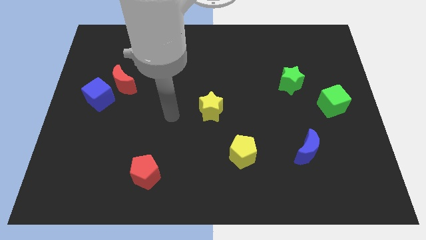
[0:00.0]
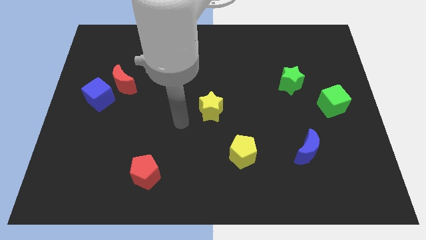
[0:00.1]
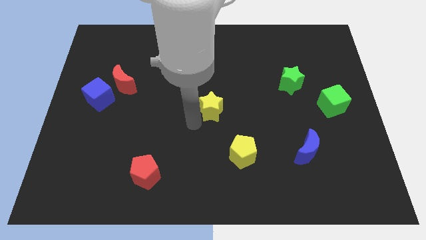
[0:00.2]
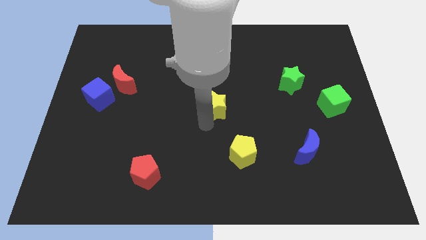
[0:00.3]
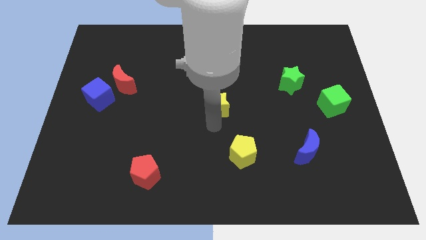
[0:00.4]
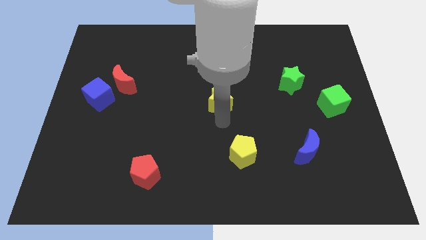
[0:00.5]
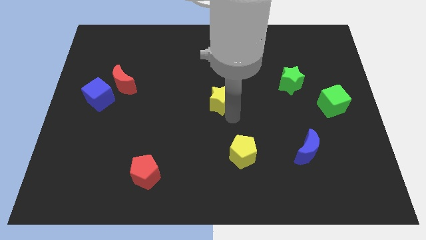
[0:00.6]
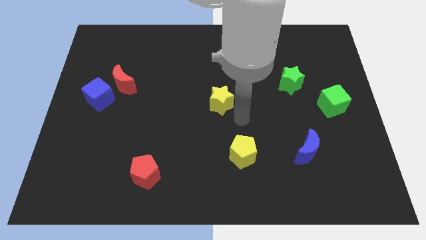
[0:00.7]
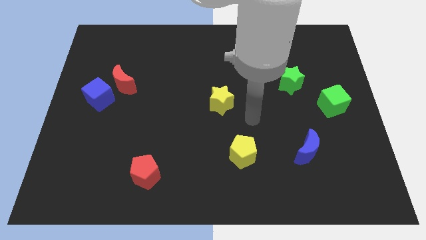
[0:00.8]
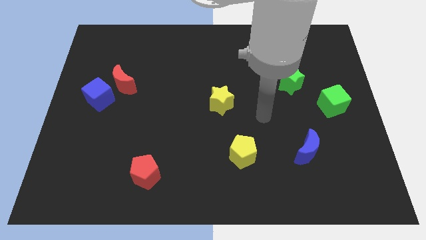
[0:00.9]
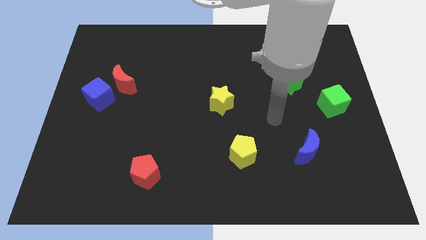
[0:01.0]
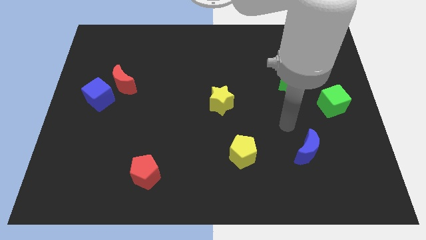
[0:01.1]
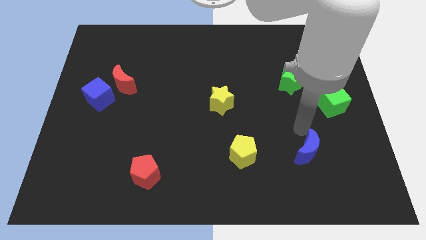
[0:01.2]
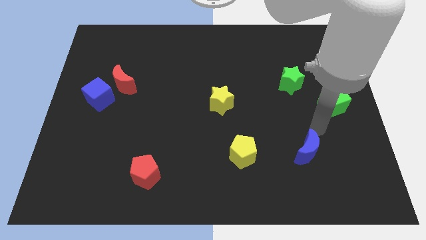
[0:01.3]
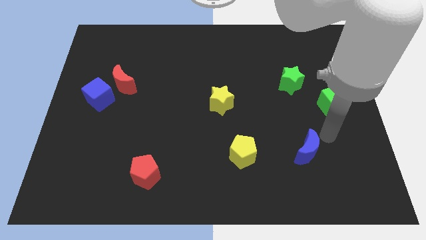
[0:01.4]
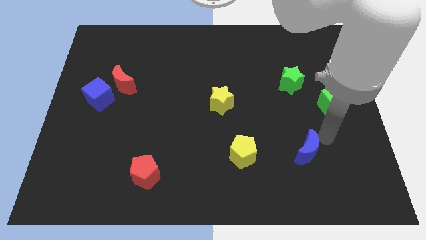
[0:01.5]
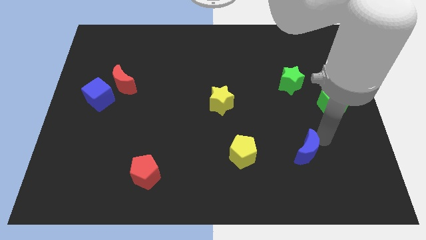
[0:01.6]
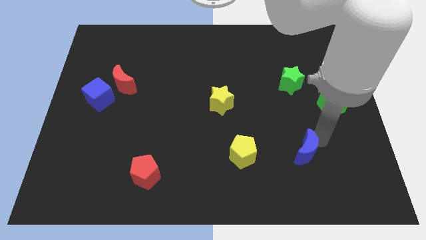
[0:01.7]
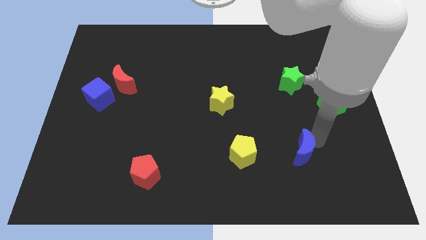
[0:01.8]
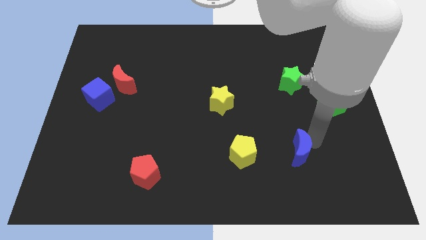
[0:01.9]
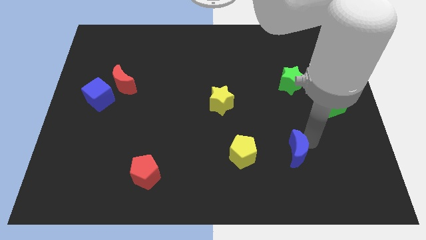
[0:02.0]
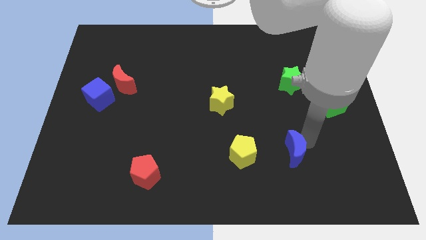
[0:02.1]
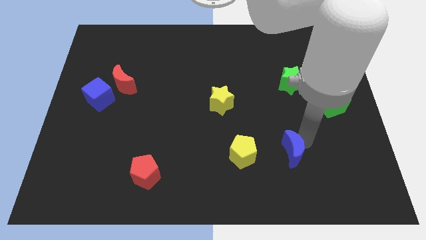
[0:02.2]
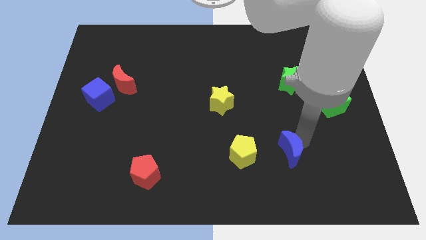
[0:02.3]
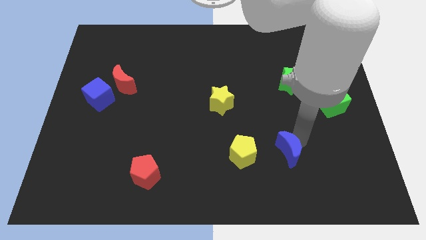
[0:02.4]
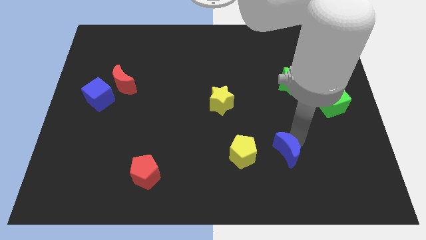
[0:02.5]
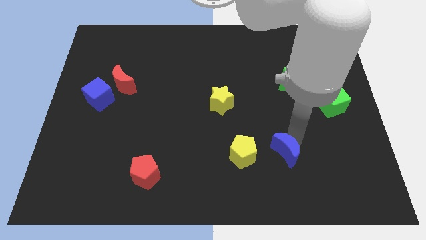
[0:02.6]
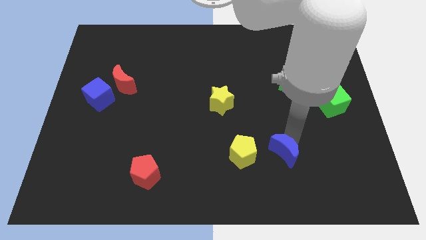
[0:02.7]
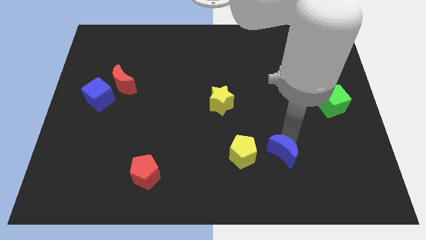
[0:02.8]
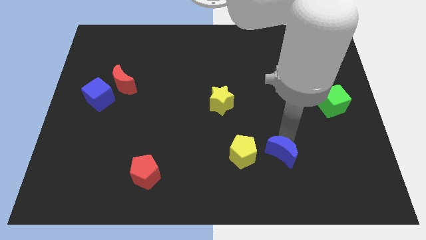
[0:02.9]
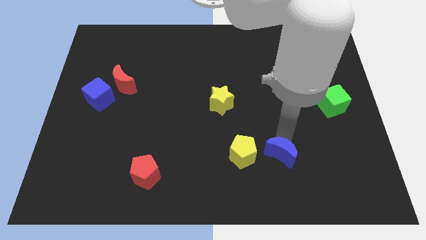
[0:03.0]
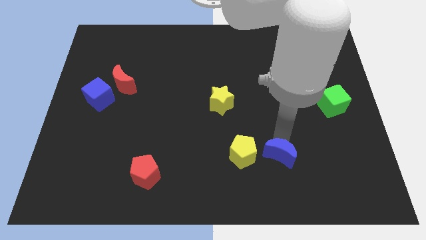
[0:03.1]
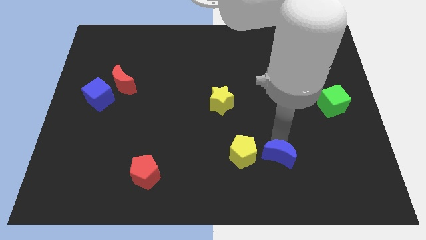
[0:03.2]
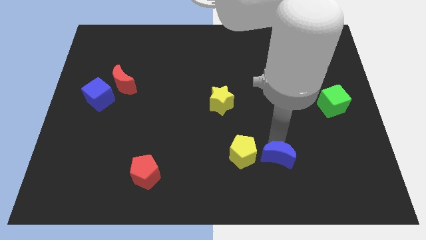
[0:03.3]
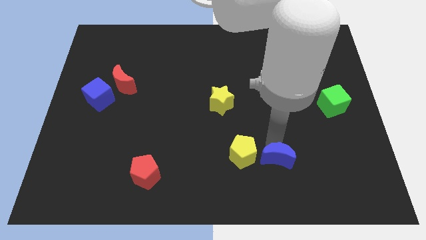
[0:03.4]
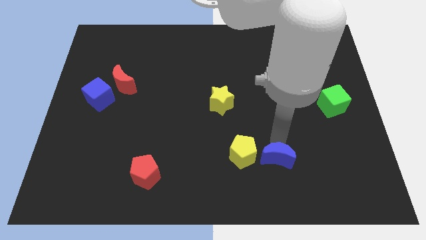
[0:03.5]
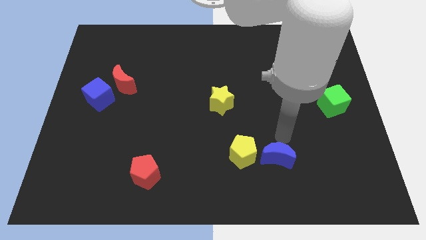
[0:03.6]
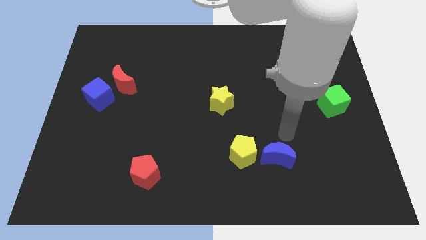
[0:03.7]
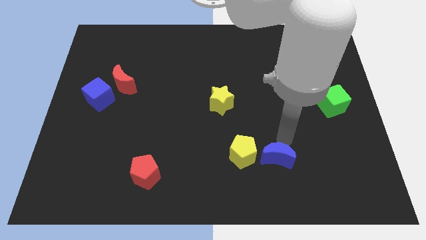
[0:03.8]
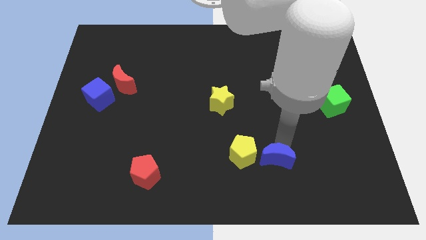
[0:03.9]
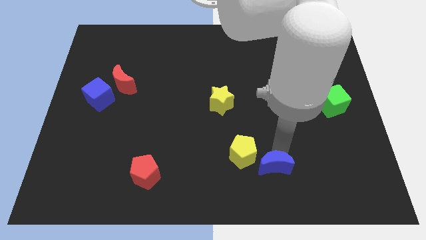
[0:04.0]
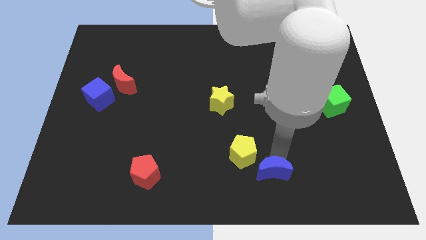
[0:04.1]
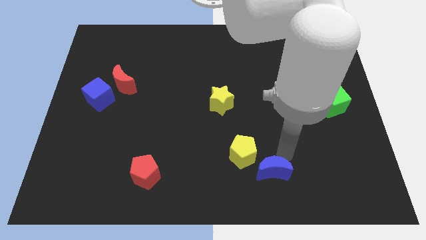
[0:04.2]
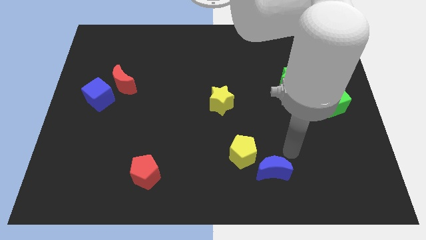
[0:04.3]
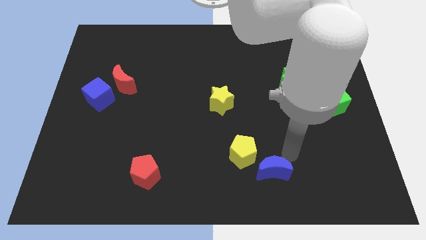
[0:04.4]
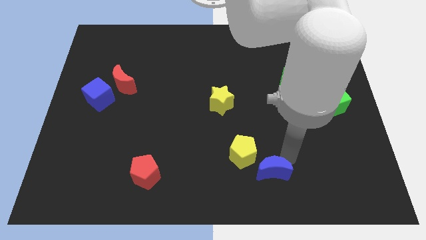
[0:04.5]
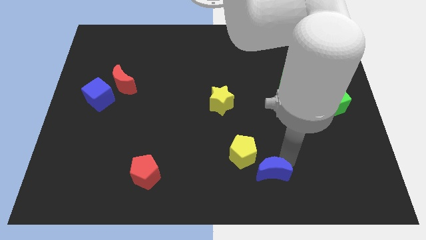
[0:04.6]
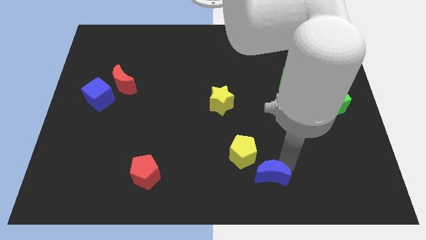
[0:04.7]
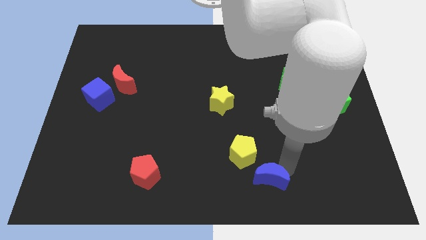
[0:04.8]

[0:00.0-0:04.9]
put the blue moon to the bottom

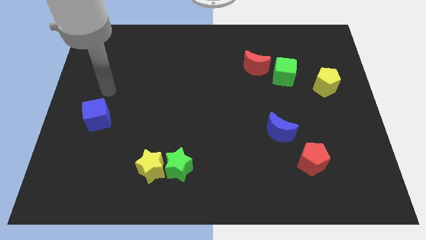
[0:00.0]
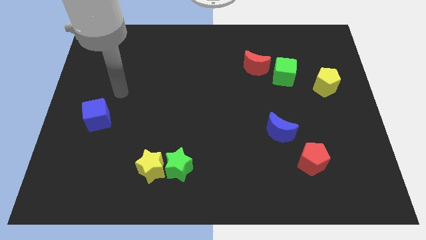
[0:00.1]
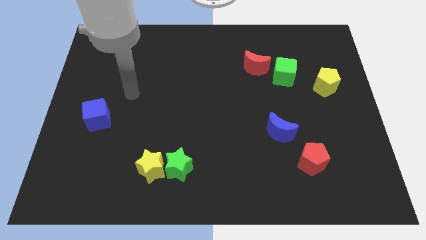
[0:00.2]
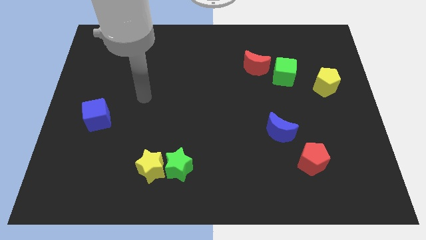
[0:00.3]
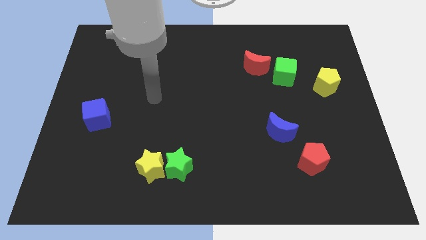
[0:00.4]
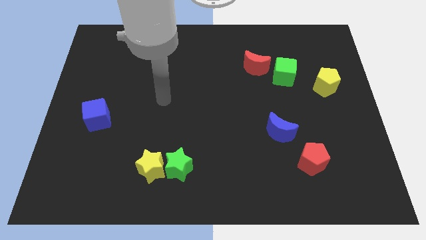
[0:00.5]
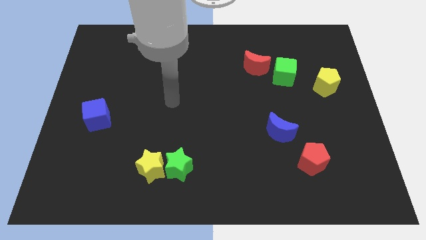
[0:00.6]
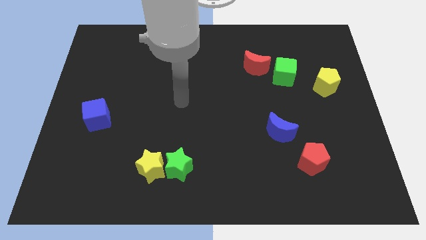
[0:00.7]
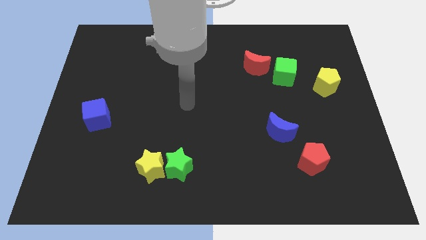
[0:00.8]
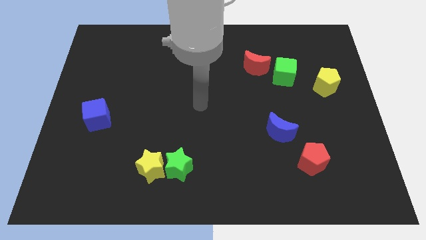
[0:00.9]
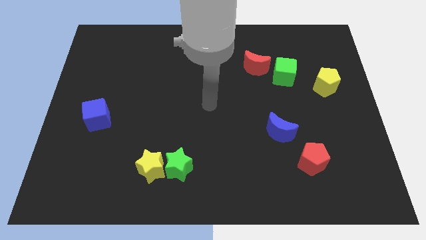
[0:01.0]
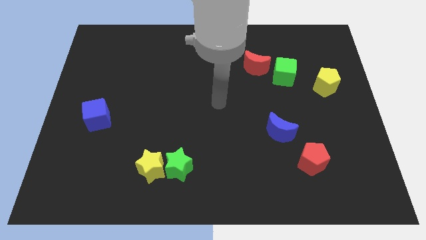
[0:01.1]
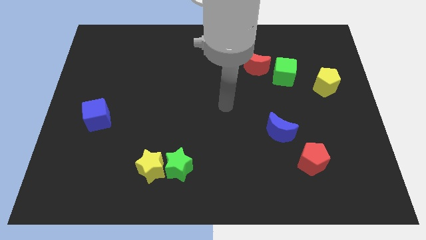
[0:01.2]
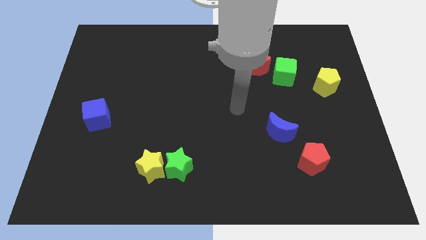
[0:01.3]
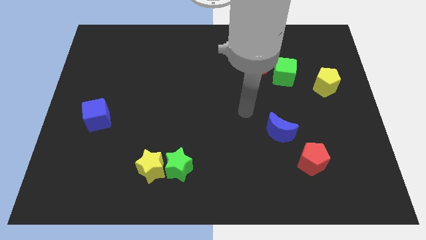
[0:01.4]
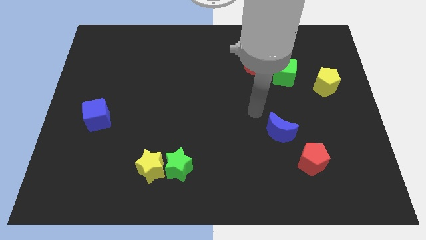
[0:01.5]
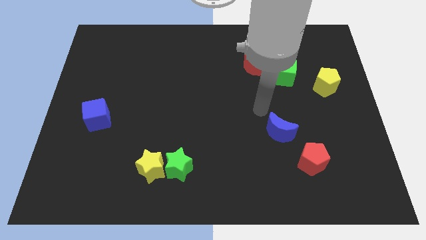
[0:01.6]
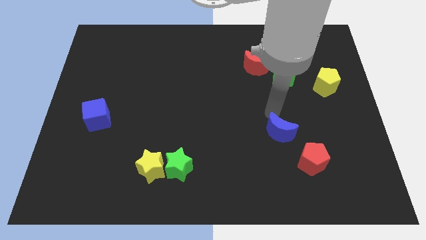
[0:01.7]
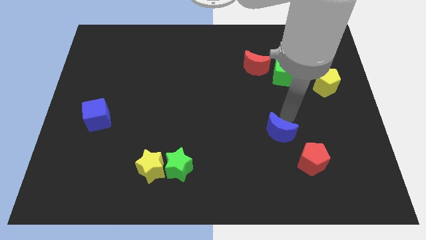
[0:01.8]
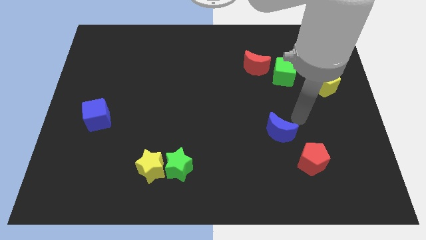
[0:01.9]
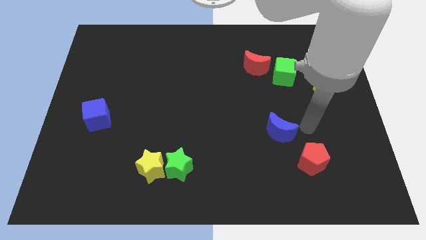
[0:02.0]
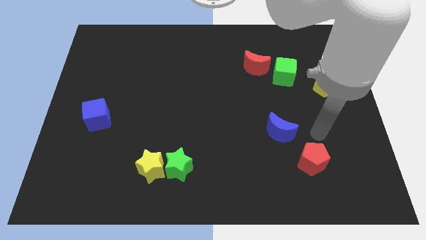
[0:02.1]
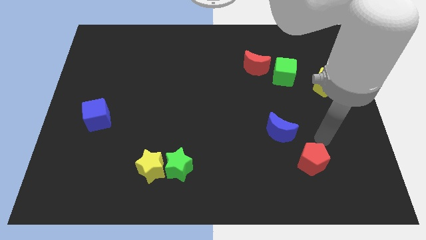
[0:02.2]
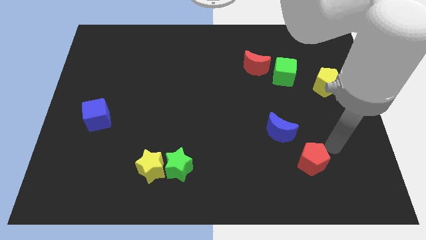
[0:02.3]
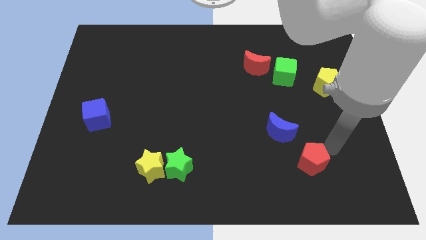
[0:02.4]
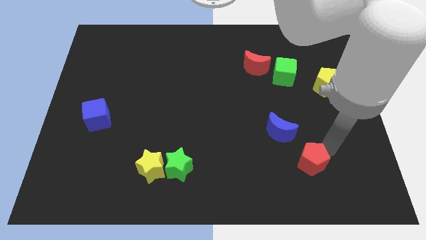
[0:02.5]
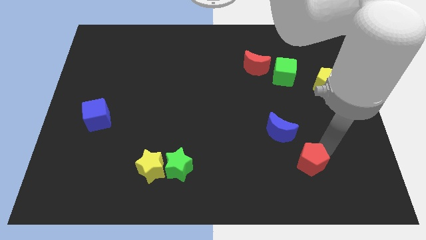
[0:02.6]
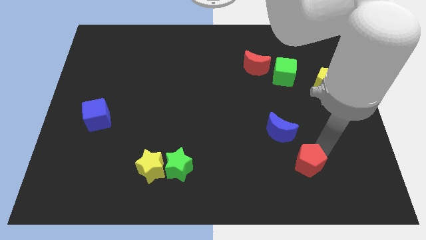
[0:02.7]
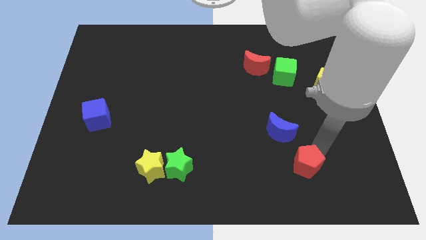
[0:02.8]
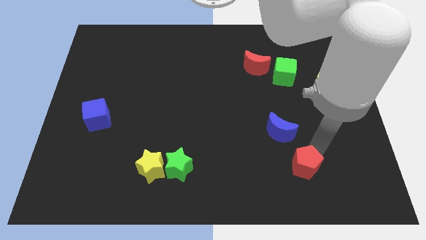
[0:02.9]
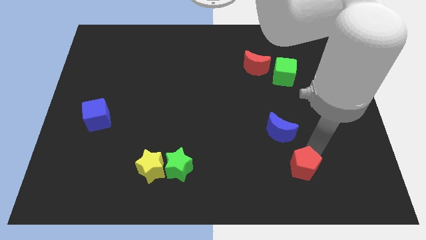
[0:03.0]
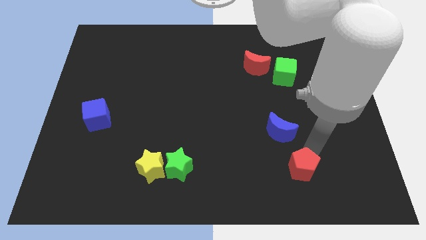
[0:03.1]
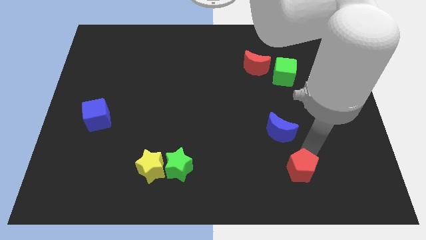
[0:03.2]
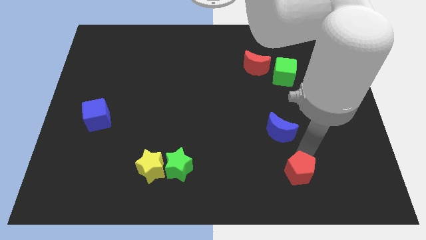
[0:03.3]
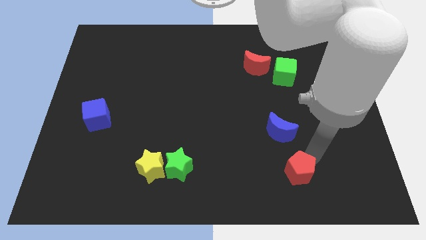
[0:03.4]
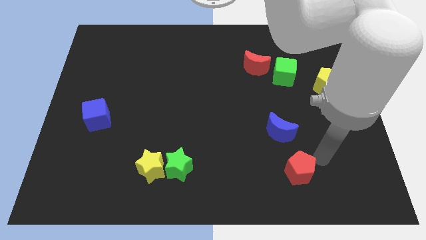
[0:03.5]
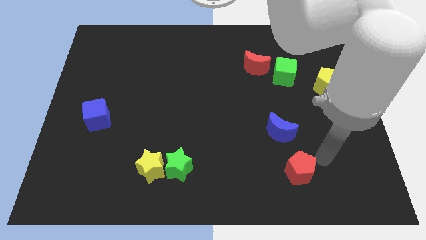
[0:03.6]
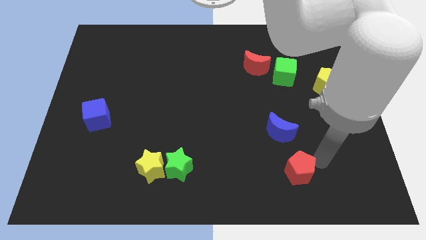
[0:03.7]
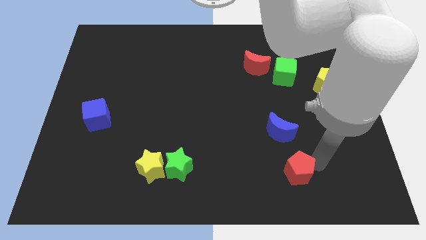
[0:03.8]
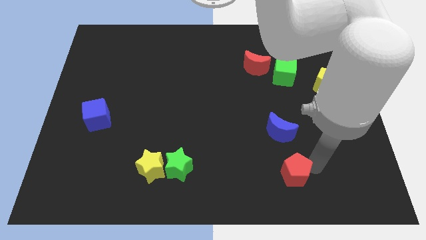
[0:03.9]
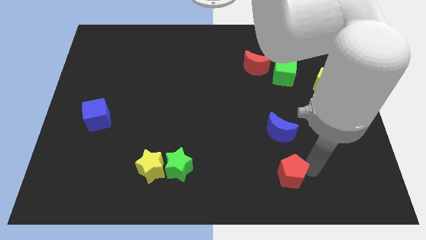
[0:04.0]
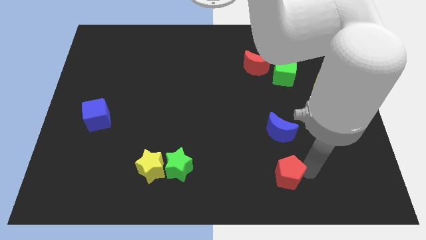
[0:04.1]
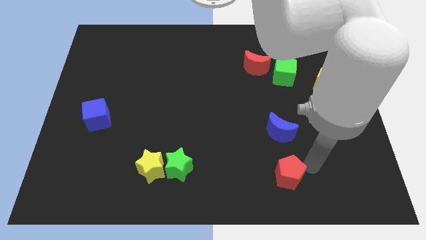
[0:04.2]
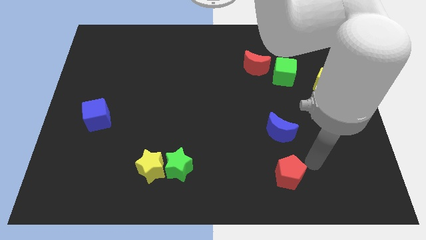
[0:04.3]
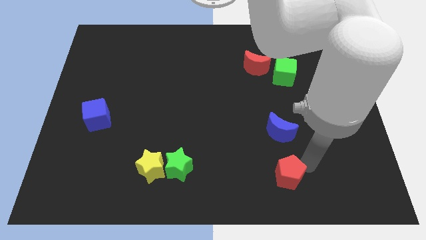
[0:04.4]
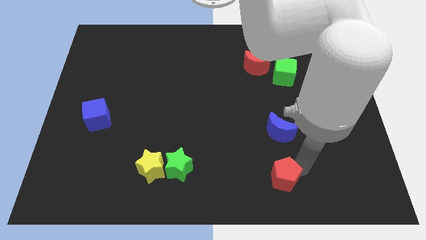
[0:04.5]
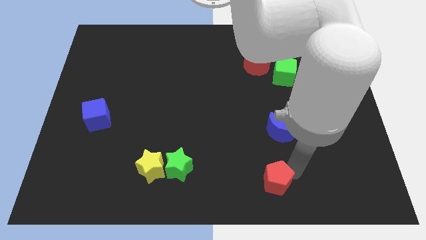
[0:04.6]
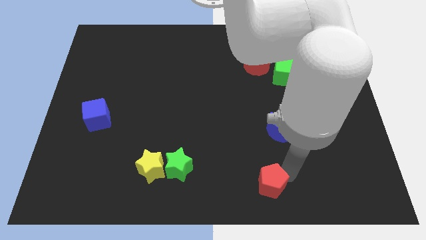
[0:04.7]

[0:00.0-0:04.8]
slide the red pentagon to the bottom side
